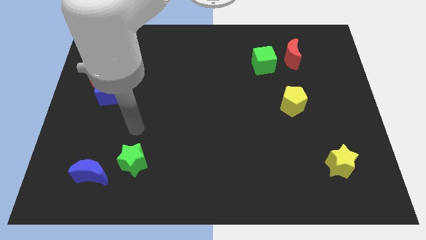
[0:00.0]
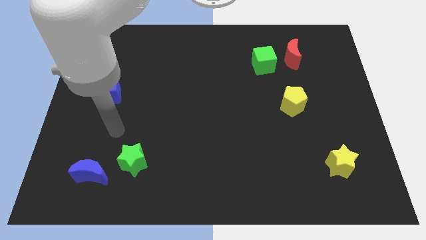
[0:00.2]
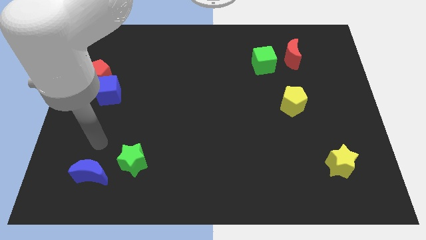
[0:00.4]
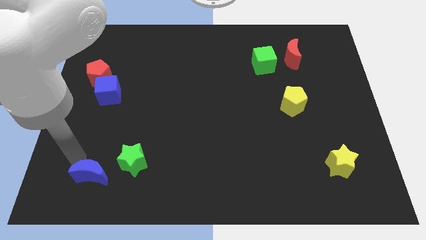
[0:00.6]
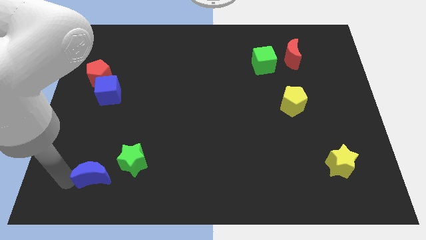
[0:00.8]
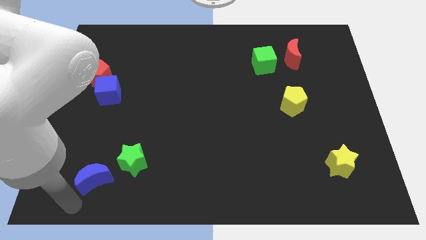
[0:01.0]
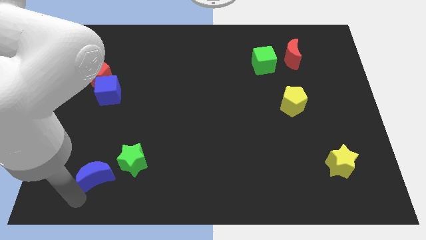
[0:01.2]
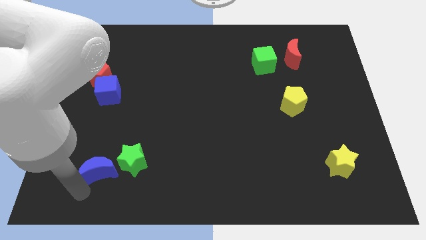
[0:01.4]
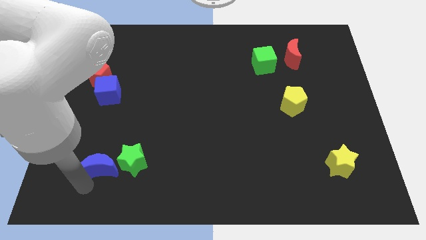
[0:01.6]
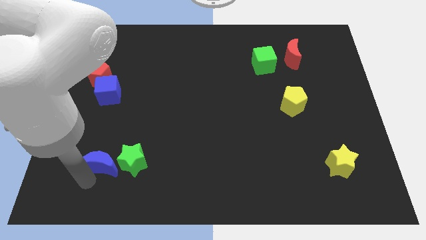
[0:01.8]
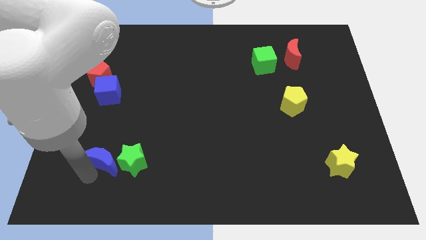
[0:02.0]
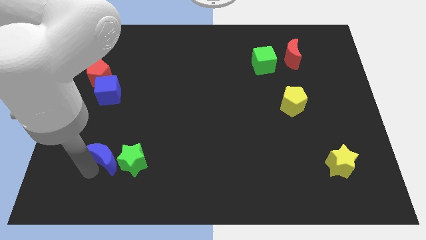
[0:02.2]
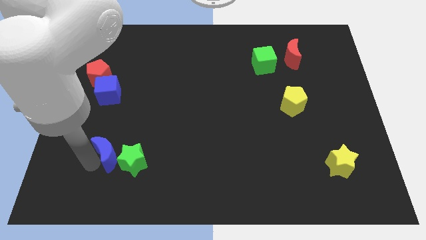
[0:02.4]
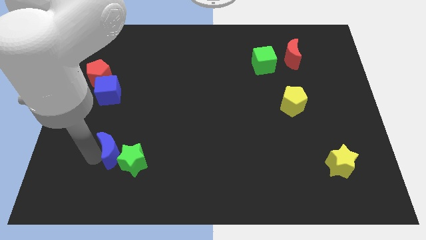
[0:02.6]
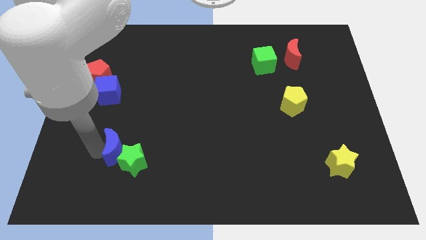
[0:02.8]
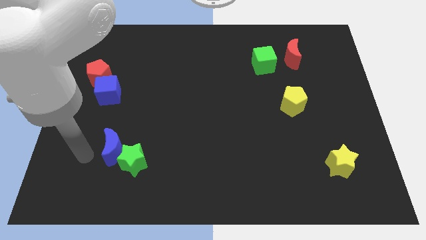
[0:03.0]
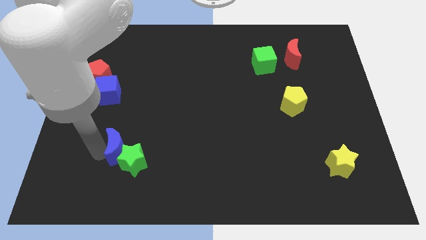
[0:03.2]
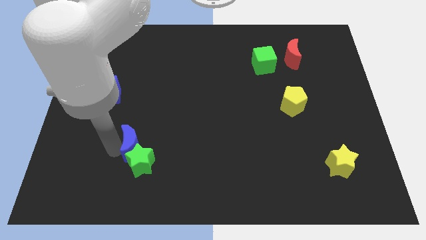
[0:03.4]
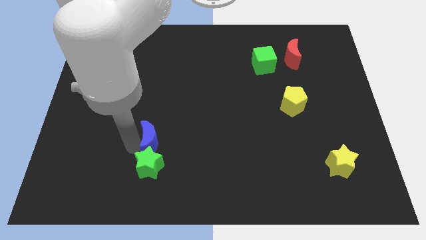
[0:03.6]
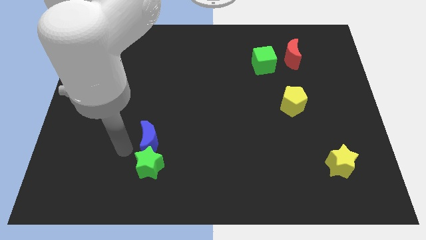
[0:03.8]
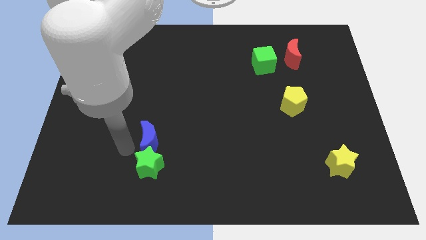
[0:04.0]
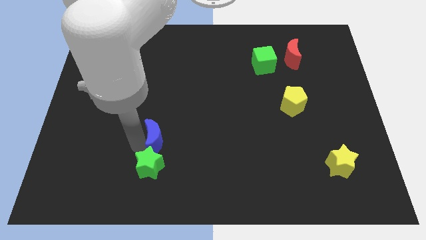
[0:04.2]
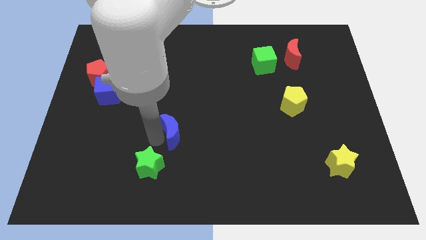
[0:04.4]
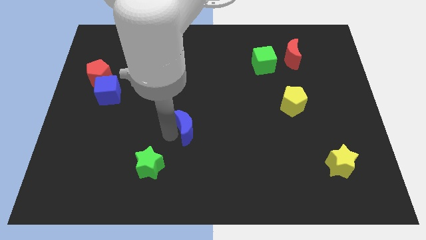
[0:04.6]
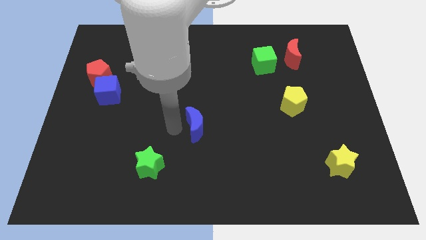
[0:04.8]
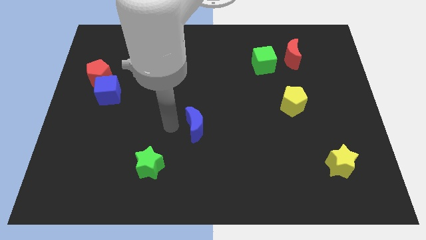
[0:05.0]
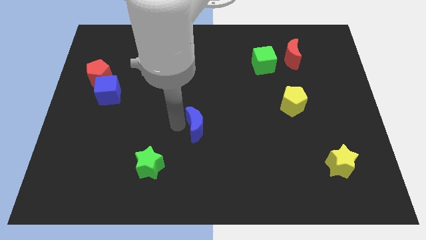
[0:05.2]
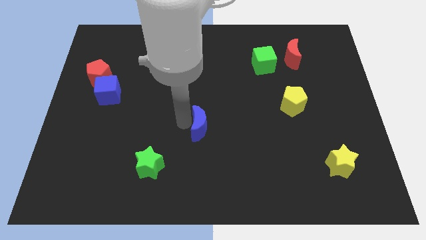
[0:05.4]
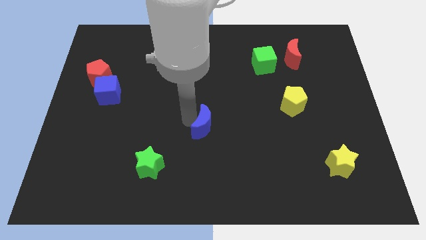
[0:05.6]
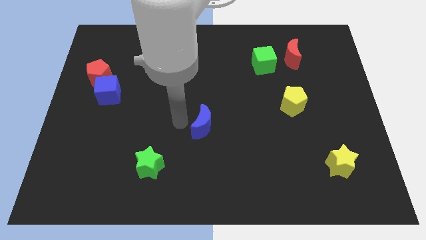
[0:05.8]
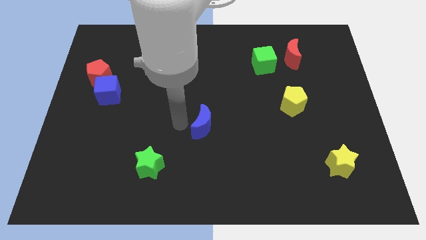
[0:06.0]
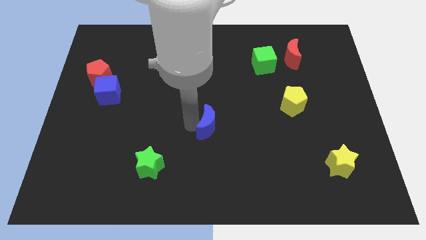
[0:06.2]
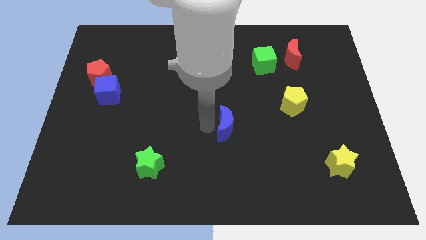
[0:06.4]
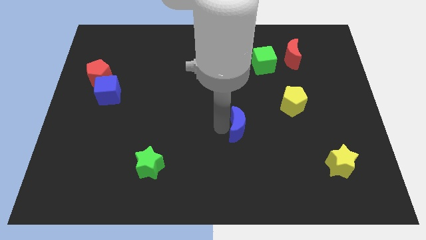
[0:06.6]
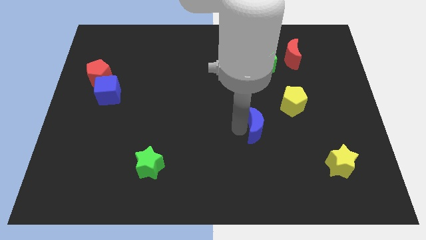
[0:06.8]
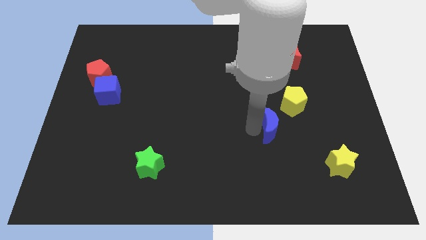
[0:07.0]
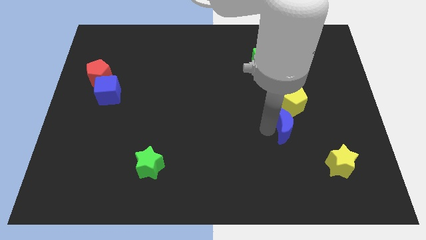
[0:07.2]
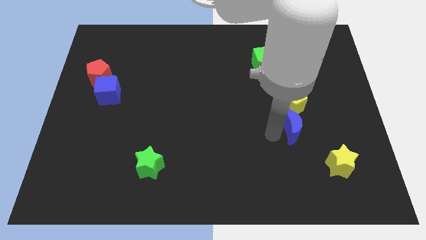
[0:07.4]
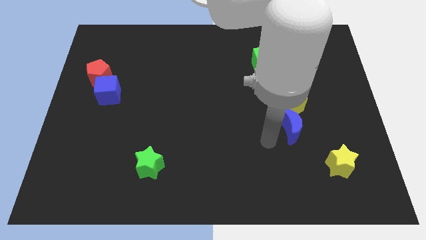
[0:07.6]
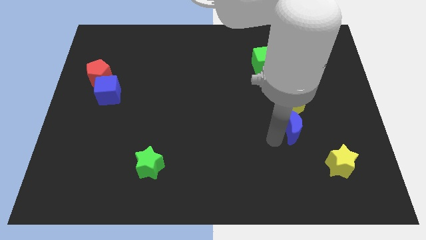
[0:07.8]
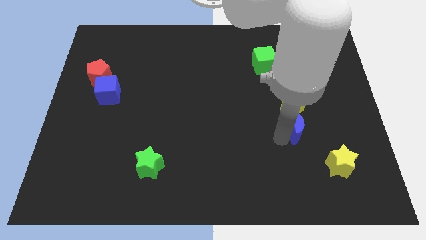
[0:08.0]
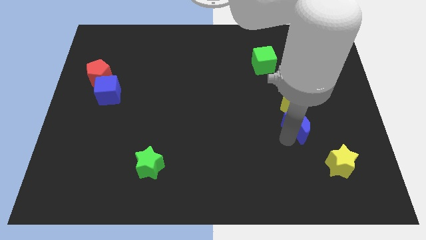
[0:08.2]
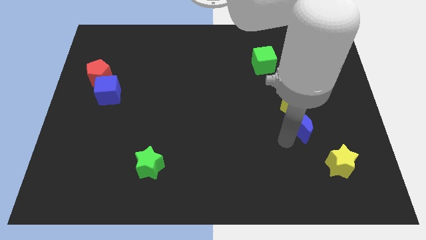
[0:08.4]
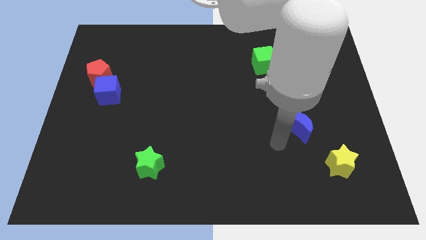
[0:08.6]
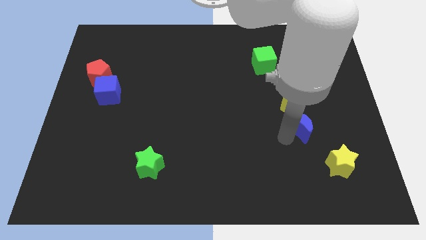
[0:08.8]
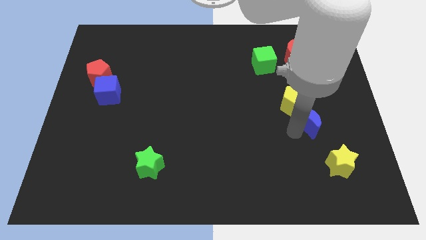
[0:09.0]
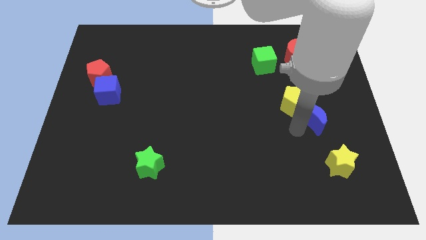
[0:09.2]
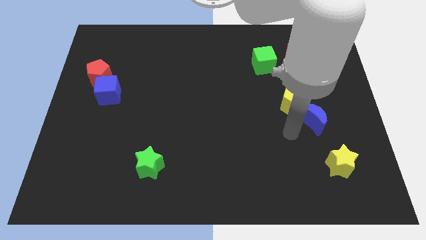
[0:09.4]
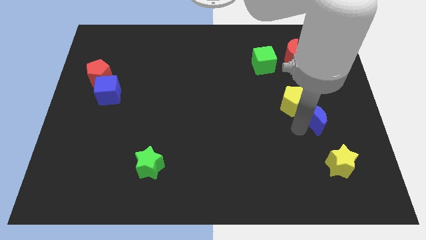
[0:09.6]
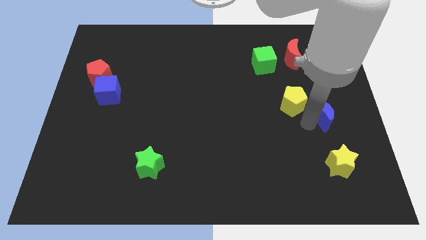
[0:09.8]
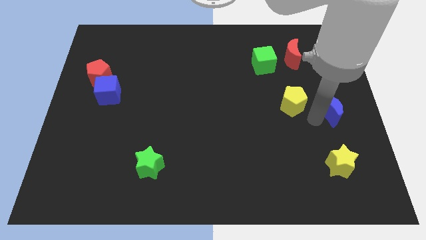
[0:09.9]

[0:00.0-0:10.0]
put the blue moon to the center right

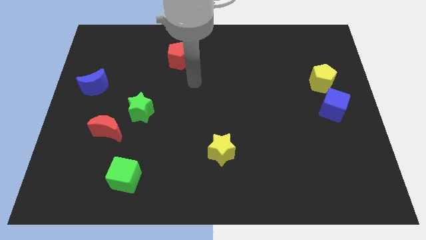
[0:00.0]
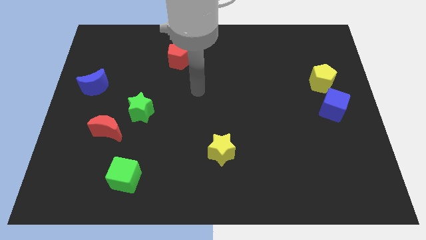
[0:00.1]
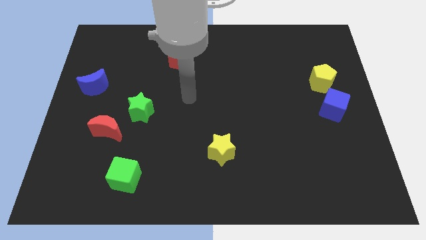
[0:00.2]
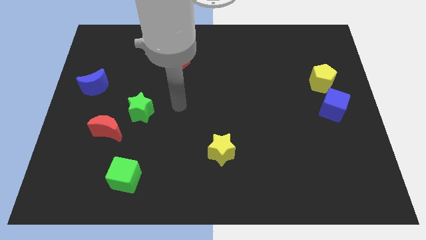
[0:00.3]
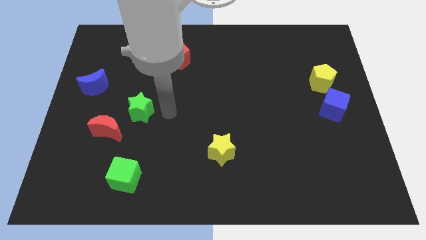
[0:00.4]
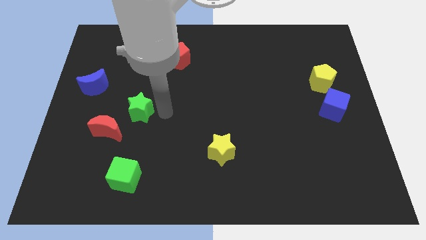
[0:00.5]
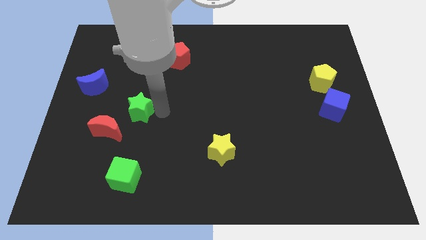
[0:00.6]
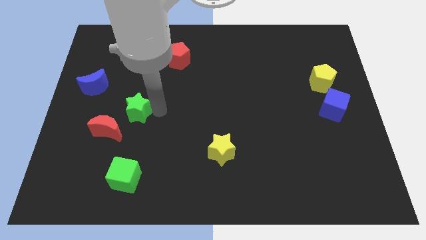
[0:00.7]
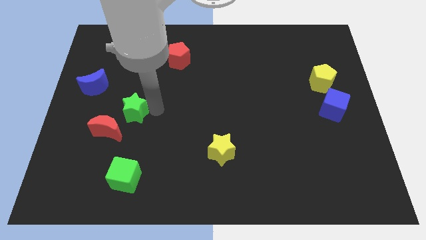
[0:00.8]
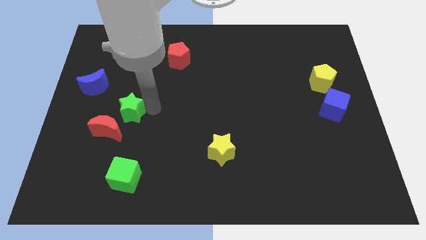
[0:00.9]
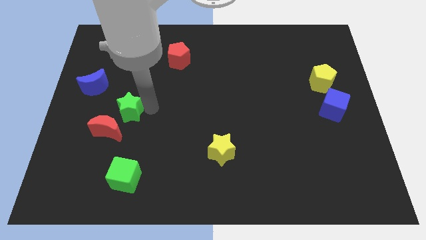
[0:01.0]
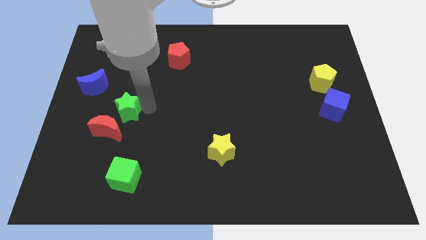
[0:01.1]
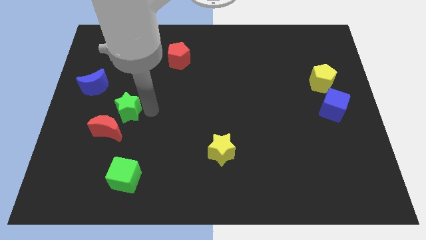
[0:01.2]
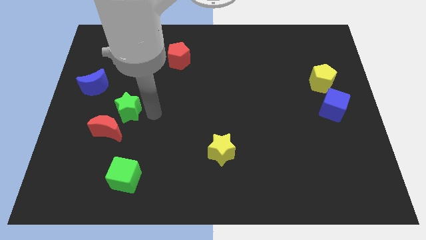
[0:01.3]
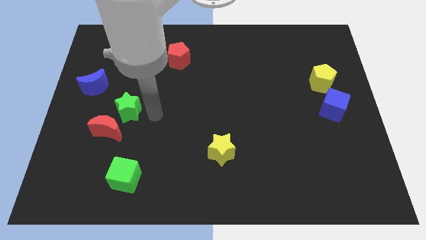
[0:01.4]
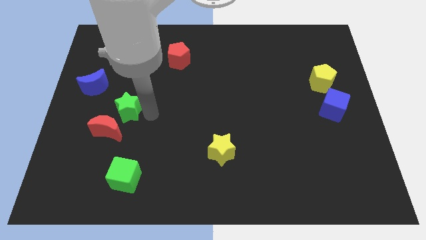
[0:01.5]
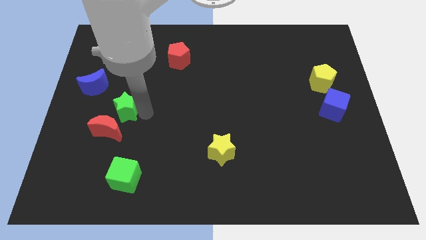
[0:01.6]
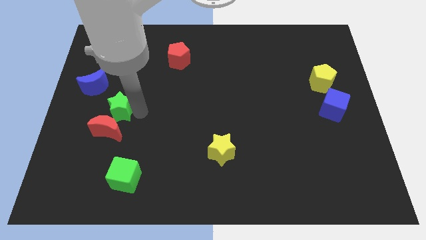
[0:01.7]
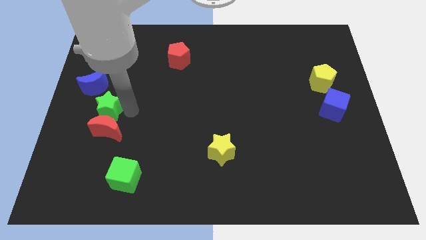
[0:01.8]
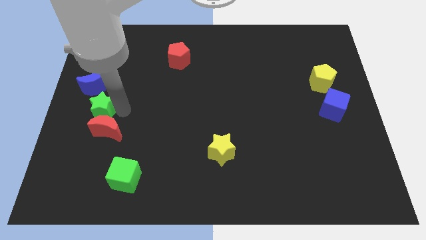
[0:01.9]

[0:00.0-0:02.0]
push the green star to the center left

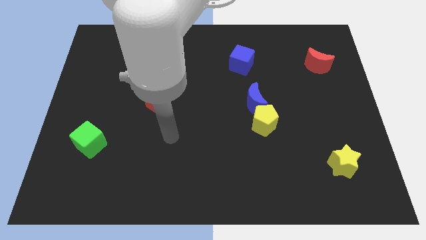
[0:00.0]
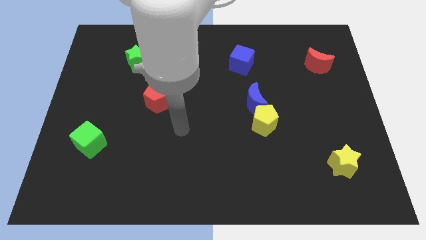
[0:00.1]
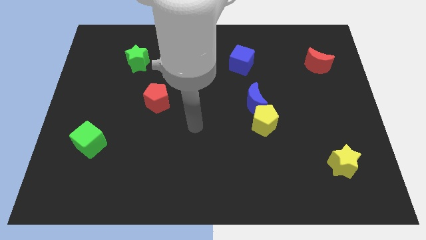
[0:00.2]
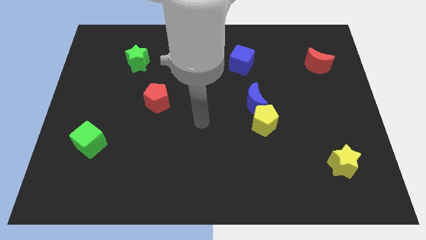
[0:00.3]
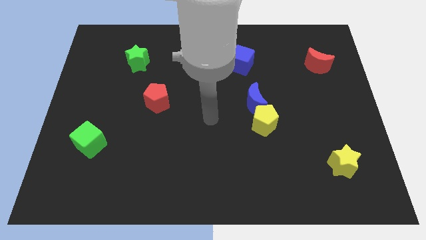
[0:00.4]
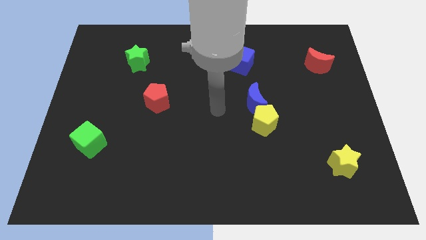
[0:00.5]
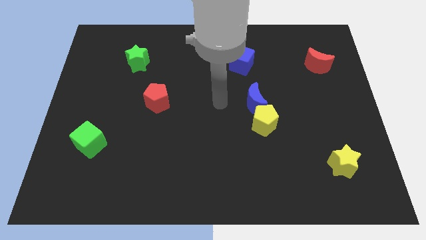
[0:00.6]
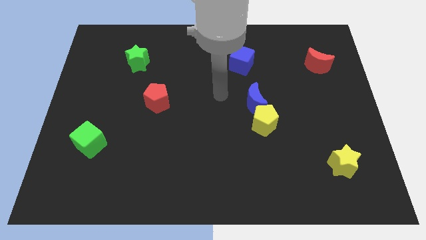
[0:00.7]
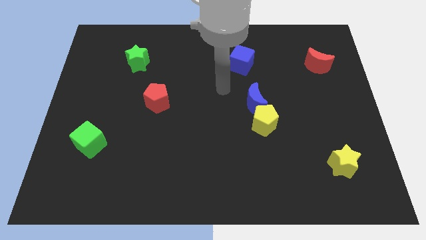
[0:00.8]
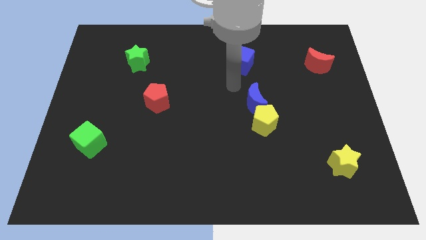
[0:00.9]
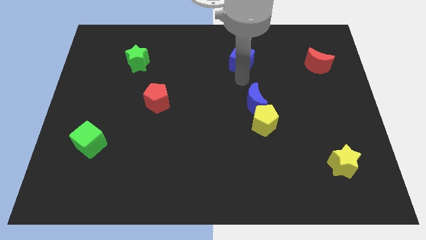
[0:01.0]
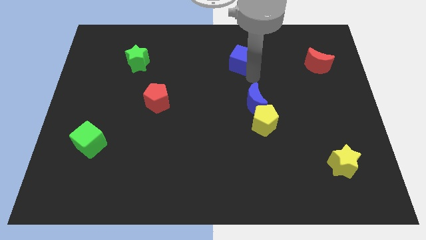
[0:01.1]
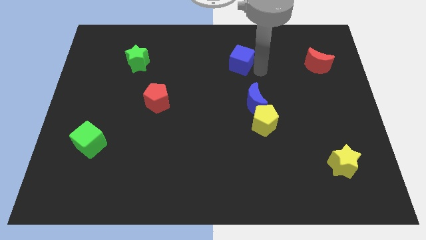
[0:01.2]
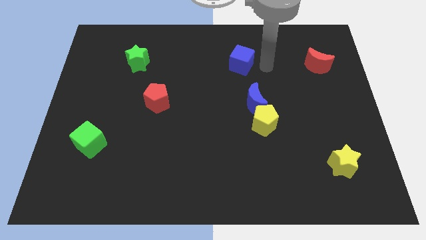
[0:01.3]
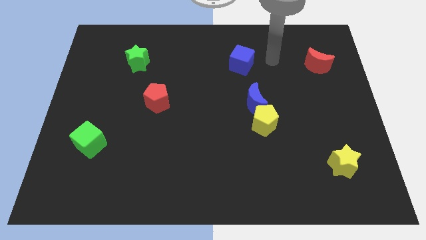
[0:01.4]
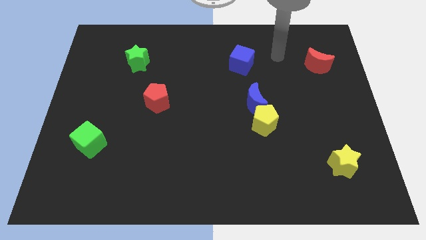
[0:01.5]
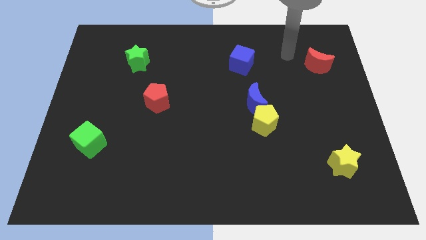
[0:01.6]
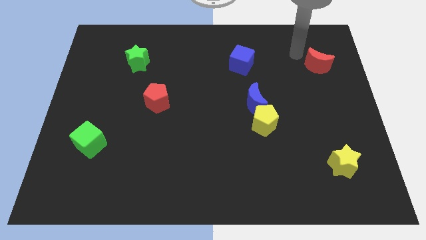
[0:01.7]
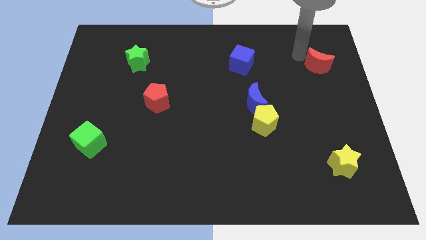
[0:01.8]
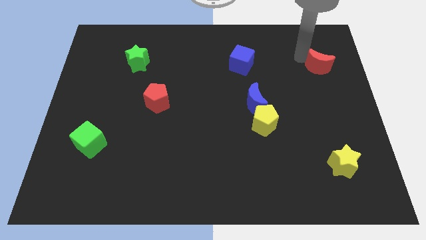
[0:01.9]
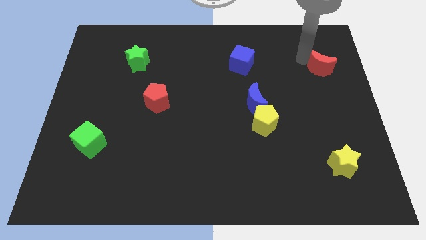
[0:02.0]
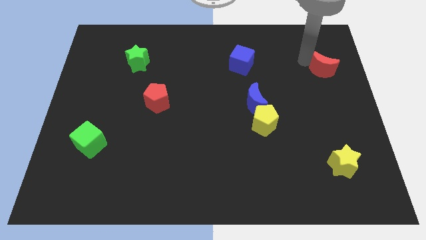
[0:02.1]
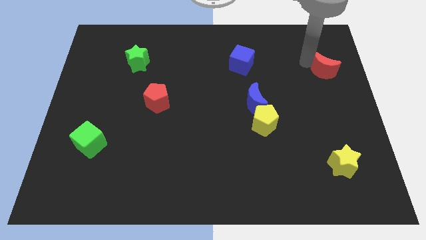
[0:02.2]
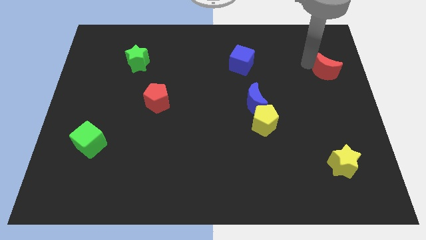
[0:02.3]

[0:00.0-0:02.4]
put the red moon to the right side
